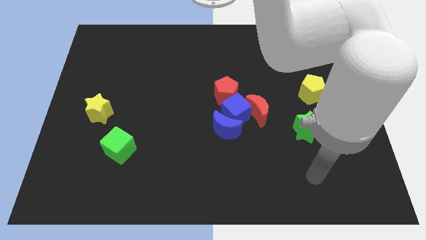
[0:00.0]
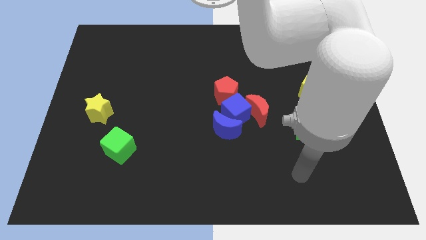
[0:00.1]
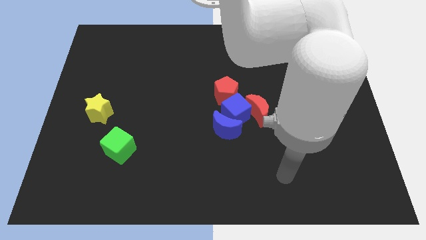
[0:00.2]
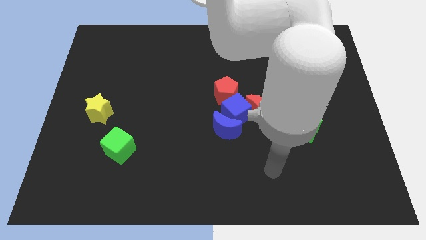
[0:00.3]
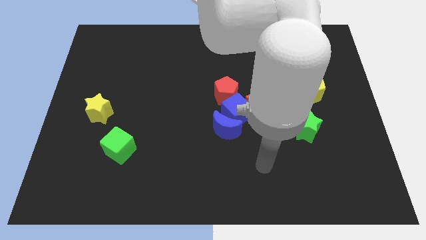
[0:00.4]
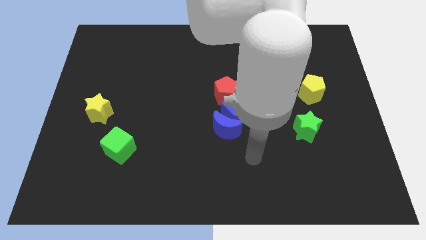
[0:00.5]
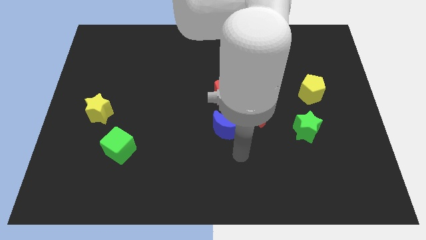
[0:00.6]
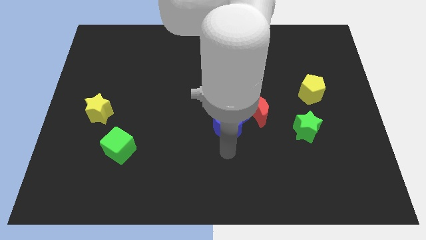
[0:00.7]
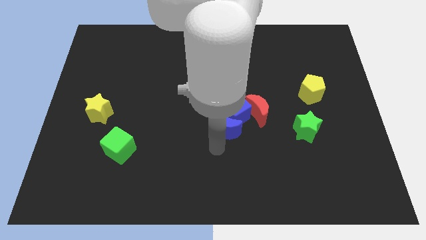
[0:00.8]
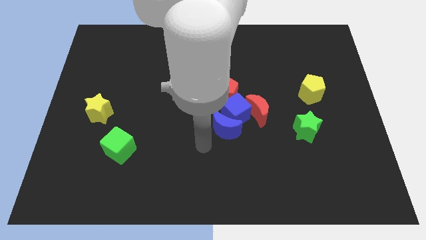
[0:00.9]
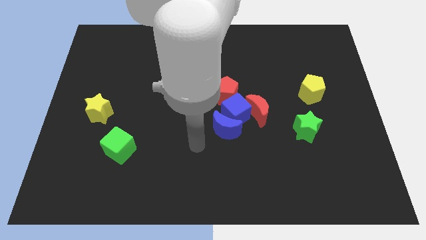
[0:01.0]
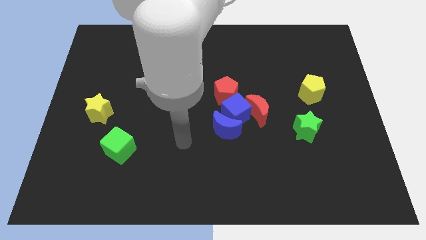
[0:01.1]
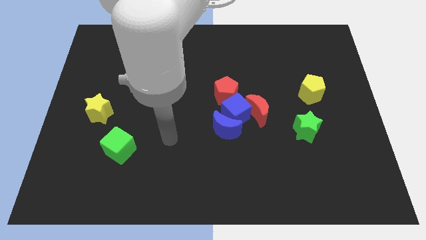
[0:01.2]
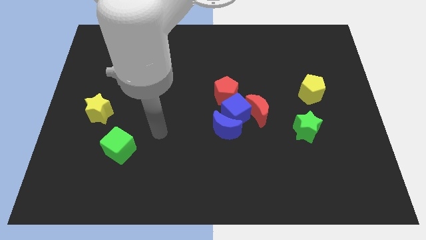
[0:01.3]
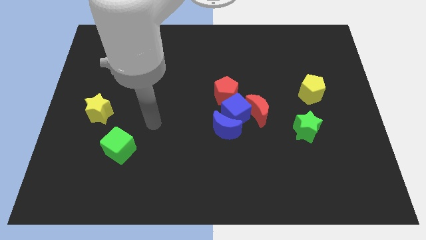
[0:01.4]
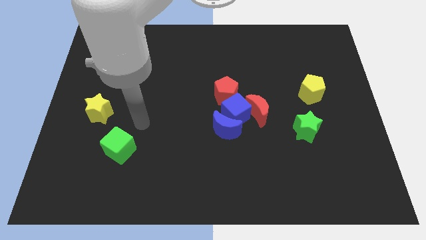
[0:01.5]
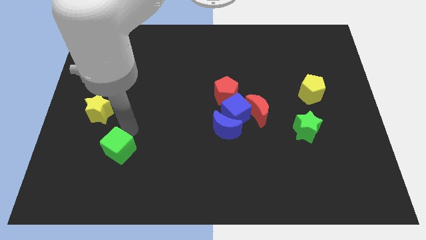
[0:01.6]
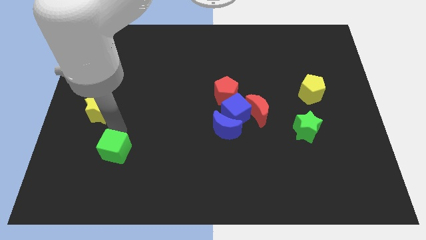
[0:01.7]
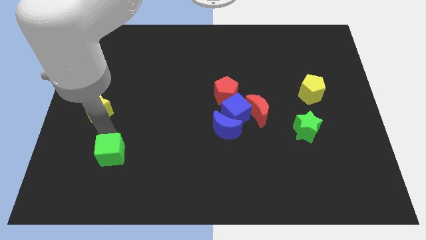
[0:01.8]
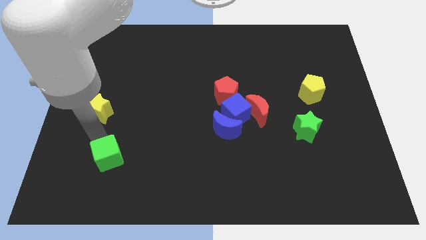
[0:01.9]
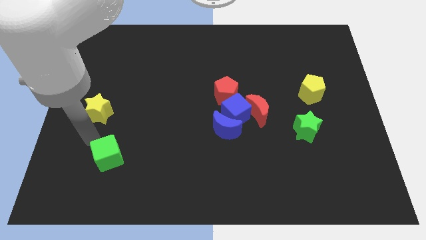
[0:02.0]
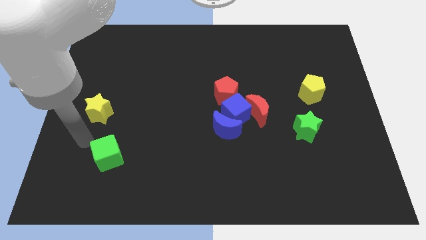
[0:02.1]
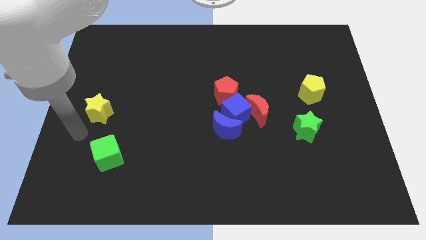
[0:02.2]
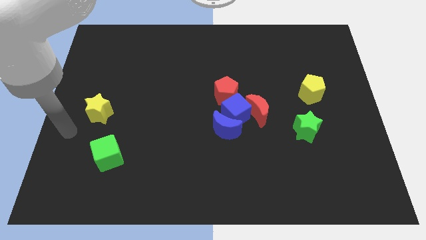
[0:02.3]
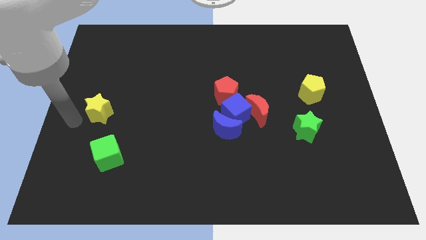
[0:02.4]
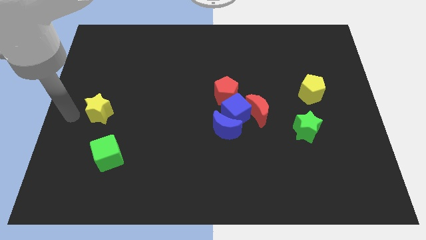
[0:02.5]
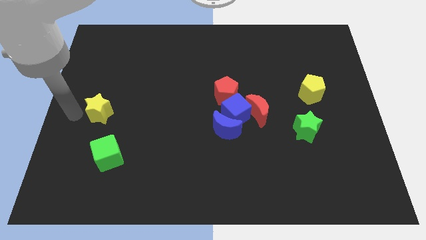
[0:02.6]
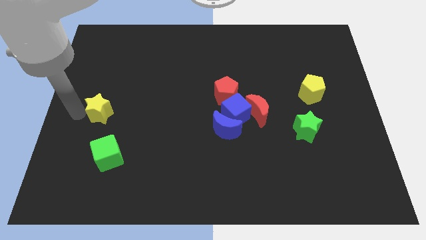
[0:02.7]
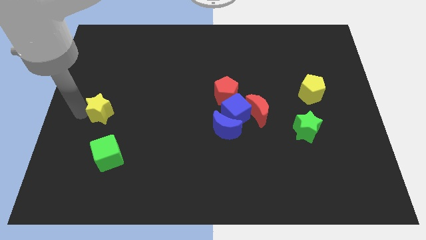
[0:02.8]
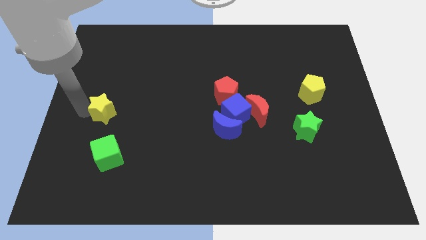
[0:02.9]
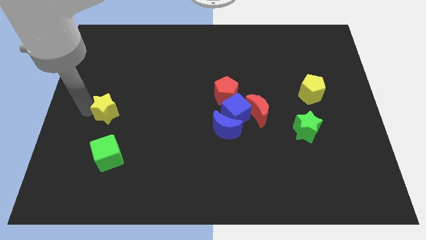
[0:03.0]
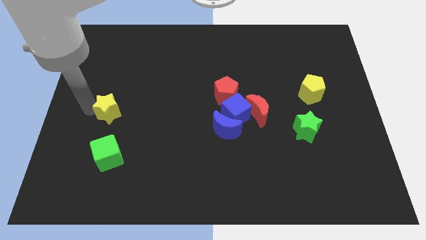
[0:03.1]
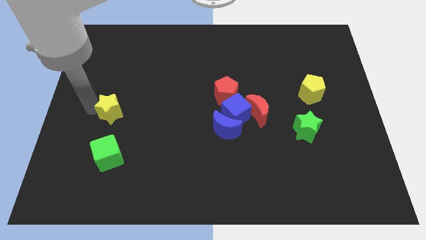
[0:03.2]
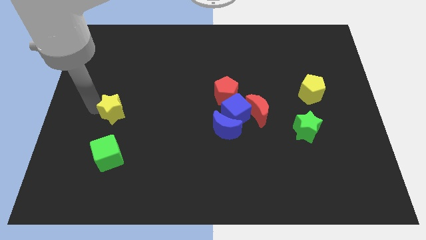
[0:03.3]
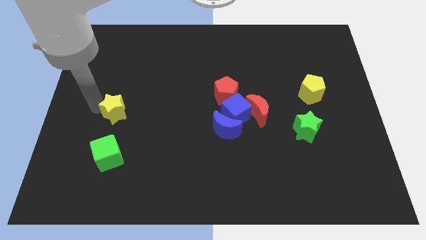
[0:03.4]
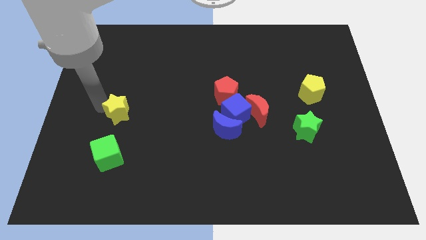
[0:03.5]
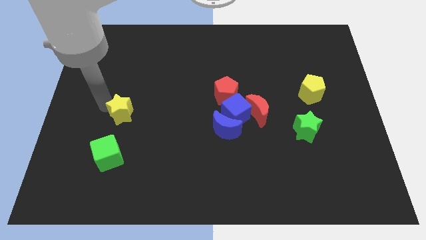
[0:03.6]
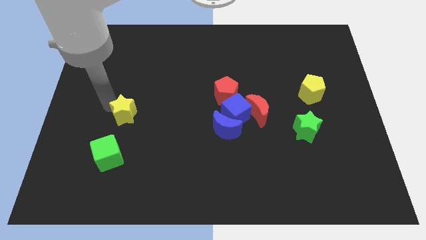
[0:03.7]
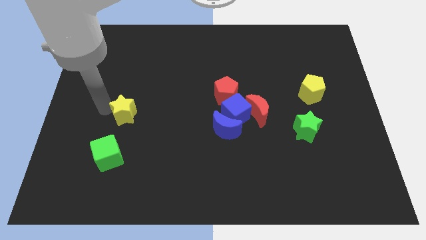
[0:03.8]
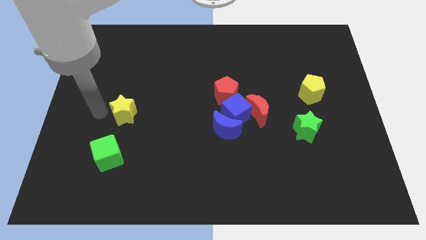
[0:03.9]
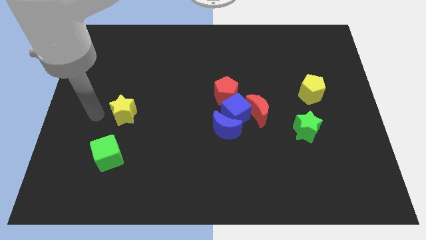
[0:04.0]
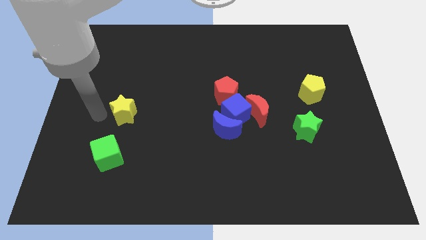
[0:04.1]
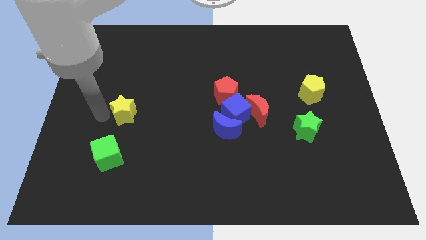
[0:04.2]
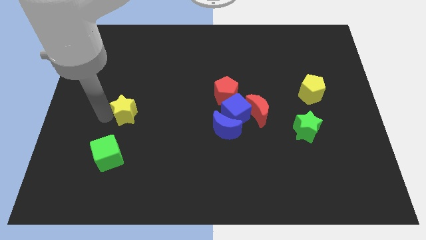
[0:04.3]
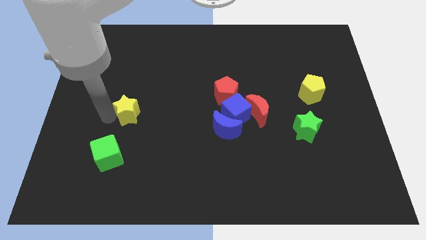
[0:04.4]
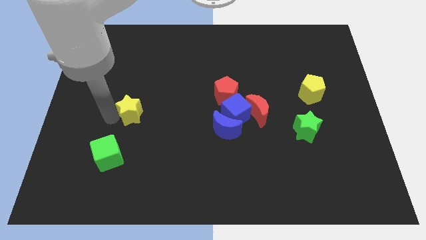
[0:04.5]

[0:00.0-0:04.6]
move the yellow star a little bit to the right

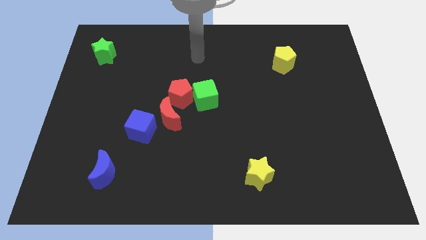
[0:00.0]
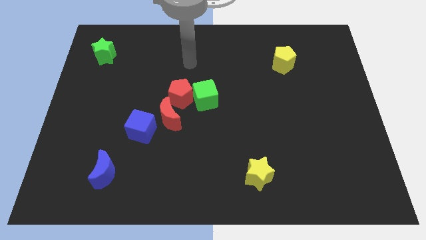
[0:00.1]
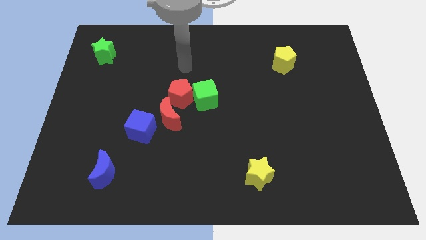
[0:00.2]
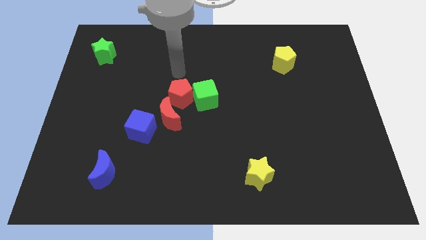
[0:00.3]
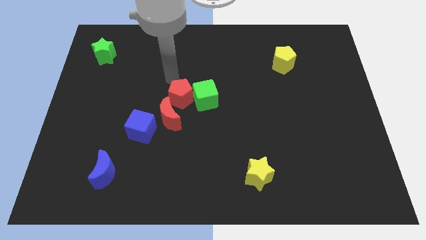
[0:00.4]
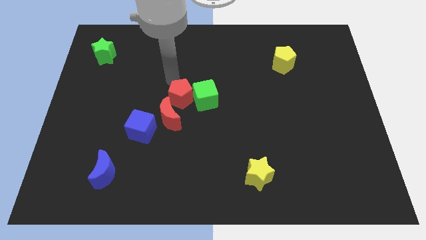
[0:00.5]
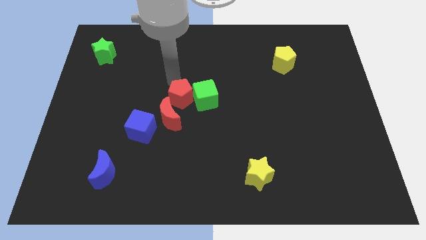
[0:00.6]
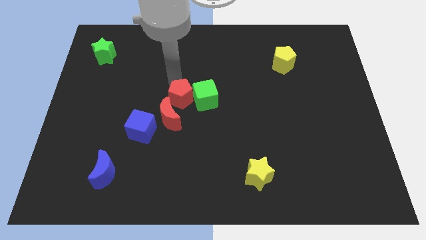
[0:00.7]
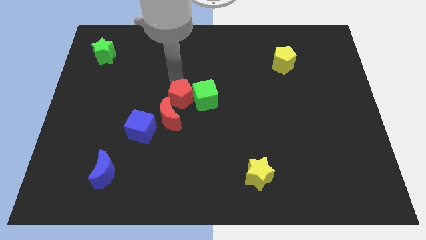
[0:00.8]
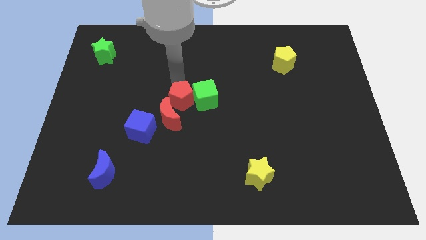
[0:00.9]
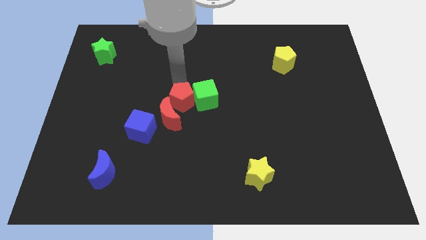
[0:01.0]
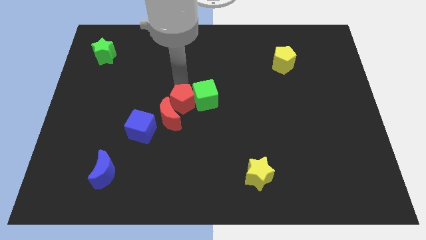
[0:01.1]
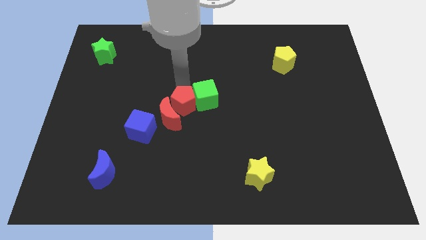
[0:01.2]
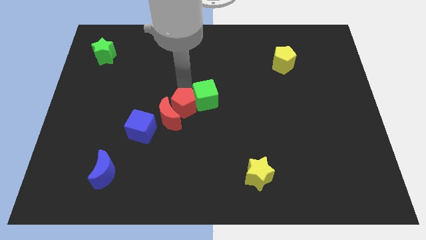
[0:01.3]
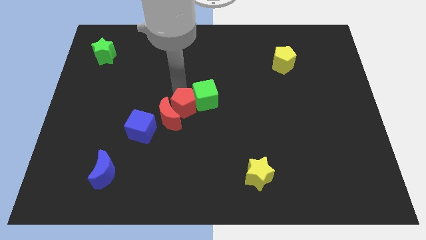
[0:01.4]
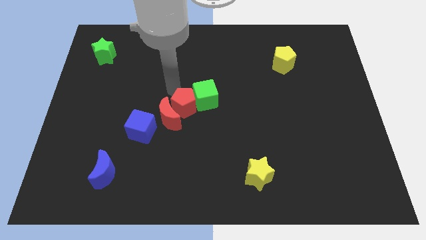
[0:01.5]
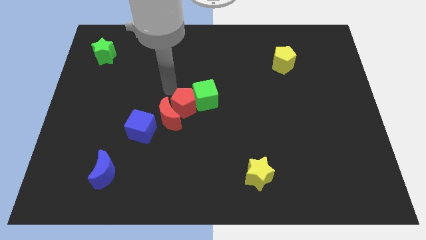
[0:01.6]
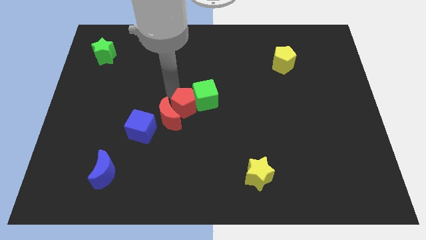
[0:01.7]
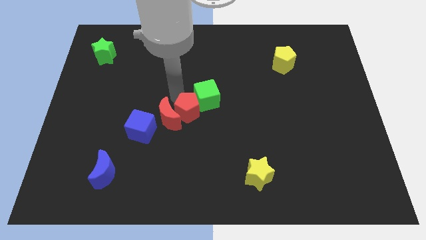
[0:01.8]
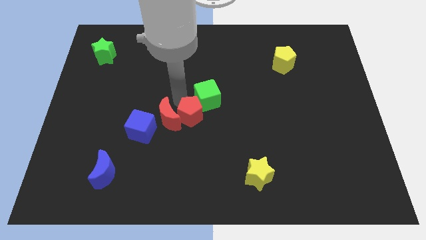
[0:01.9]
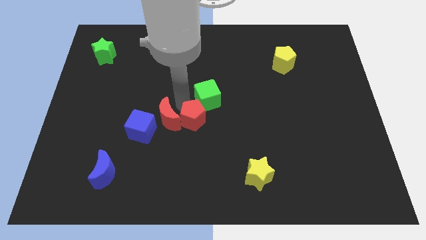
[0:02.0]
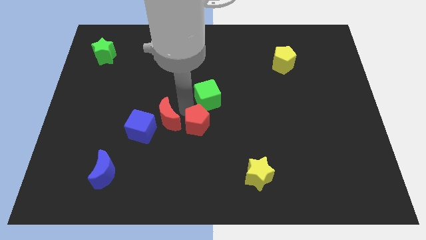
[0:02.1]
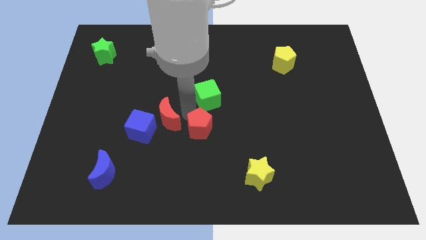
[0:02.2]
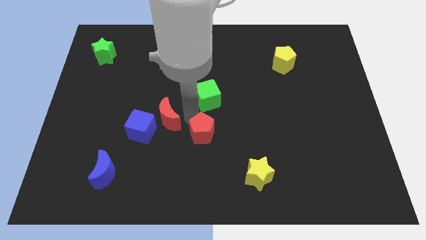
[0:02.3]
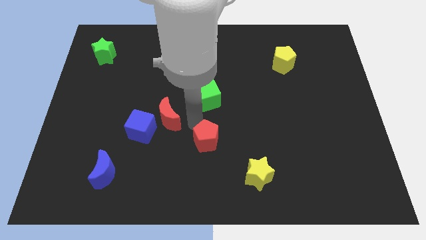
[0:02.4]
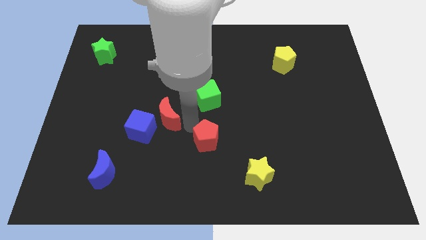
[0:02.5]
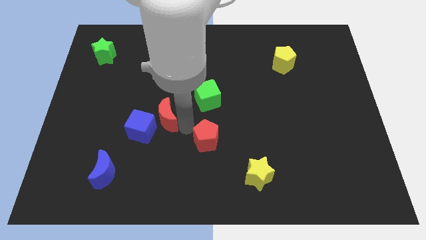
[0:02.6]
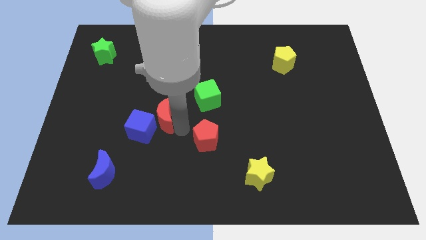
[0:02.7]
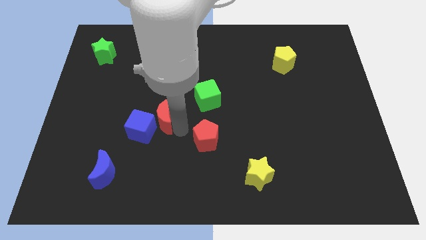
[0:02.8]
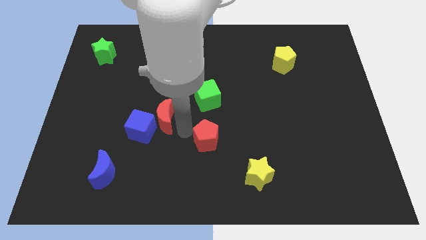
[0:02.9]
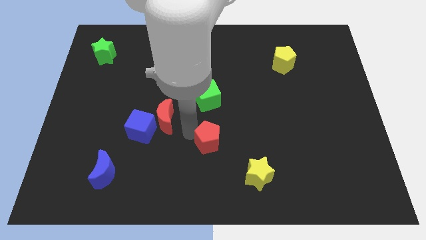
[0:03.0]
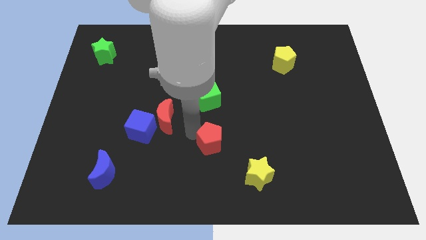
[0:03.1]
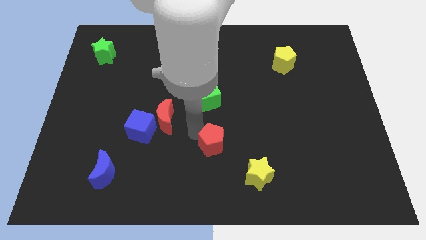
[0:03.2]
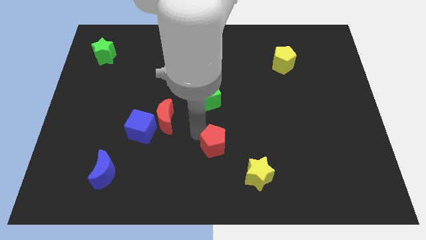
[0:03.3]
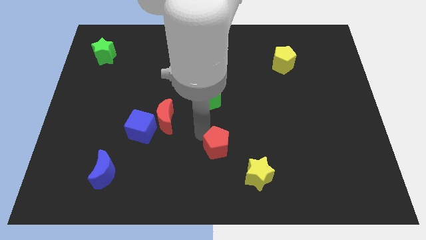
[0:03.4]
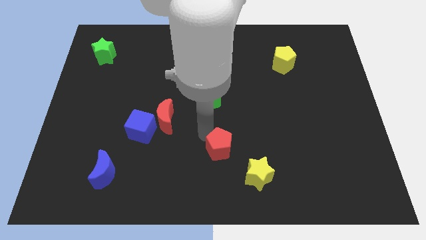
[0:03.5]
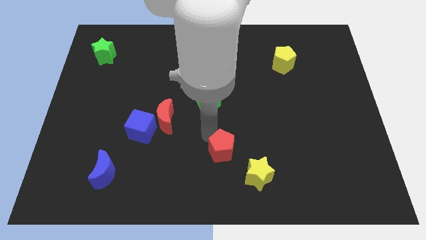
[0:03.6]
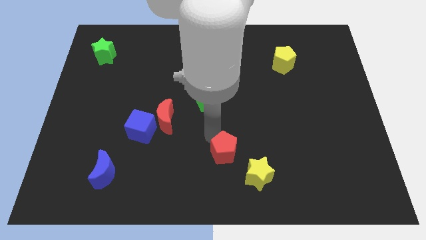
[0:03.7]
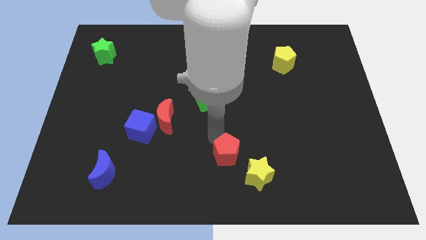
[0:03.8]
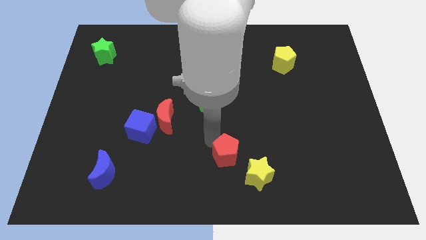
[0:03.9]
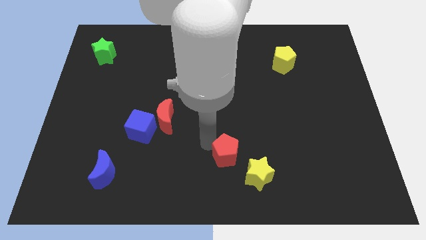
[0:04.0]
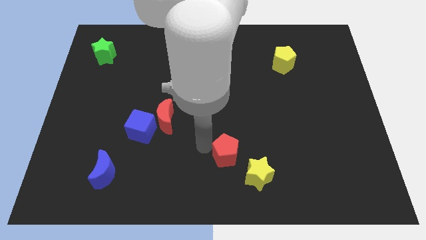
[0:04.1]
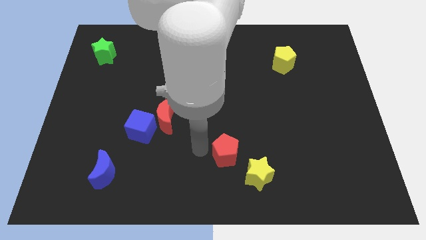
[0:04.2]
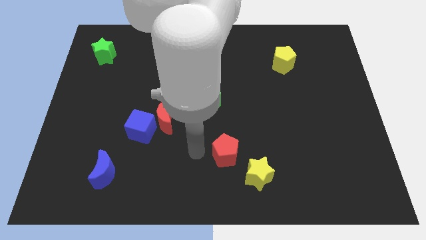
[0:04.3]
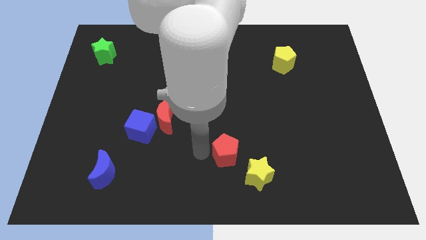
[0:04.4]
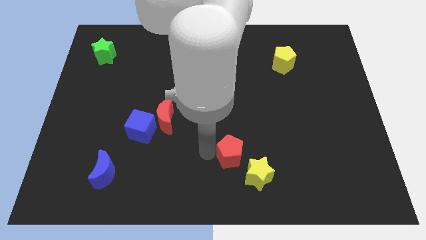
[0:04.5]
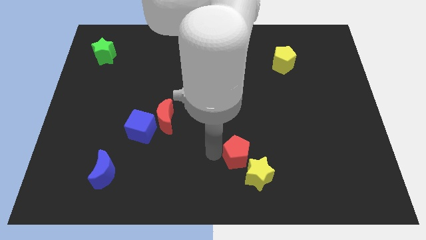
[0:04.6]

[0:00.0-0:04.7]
slide the red pentagon diagonally down and to the right
